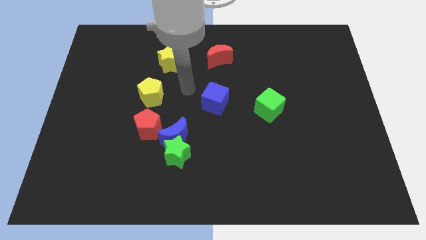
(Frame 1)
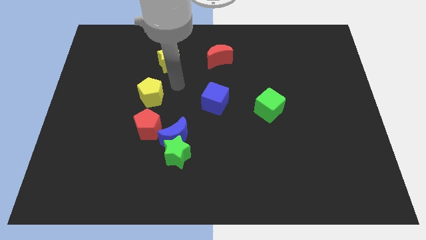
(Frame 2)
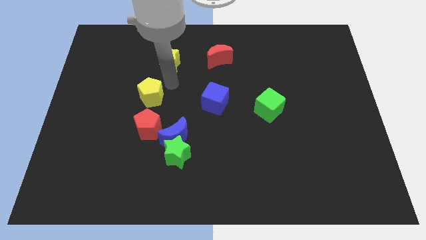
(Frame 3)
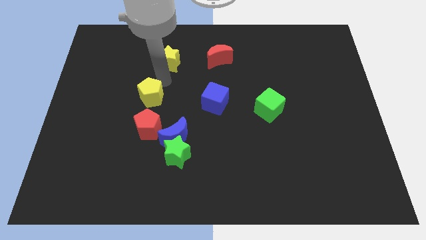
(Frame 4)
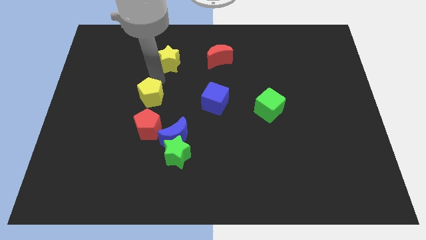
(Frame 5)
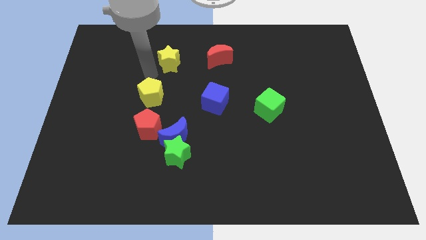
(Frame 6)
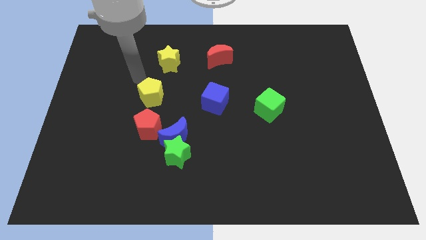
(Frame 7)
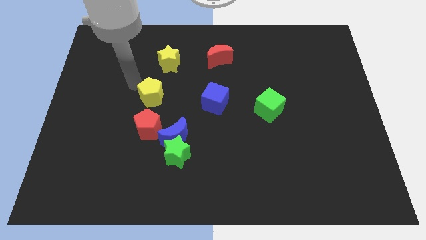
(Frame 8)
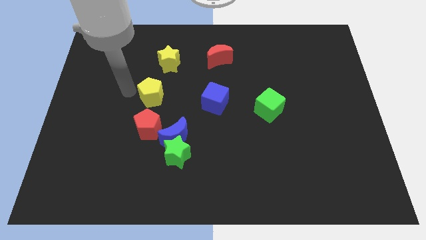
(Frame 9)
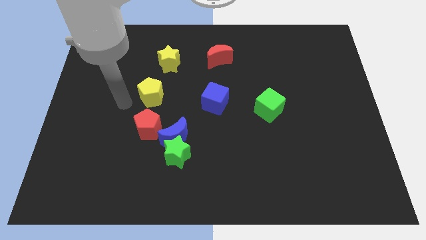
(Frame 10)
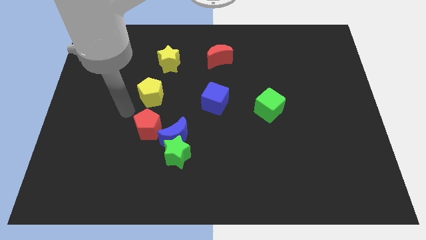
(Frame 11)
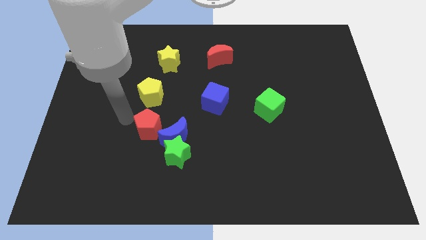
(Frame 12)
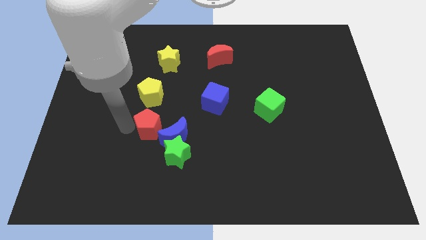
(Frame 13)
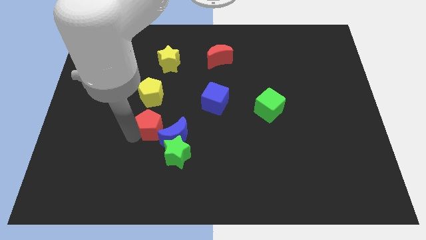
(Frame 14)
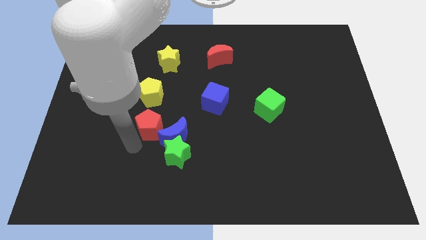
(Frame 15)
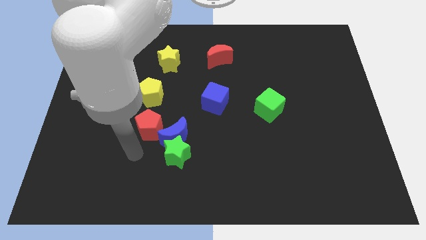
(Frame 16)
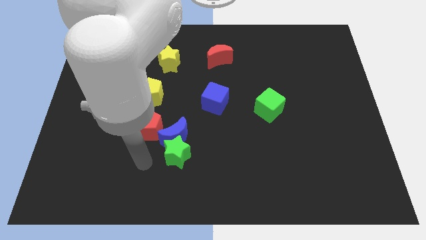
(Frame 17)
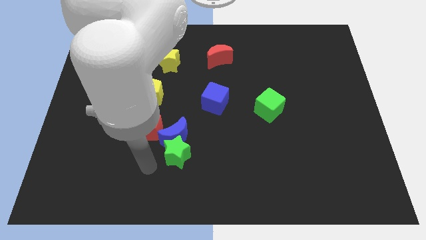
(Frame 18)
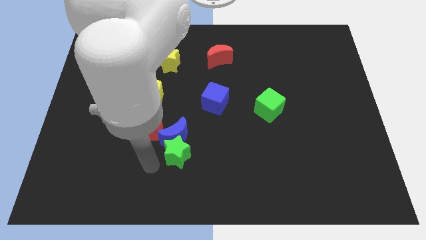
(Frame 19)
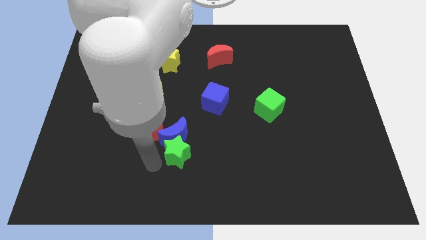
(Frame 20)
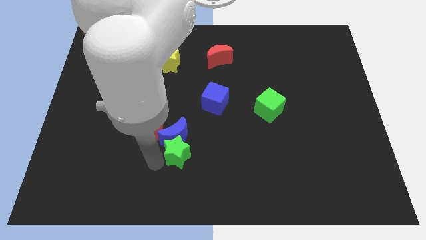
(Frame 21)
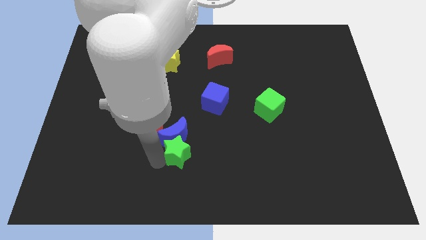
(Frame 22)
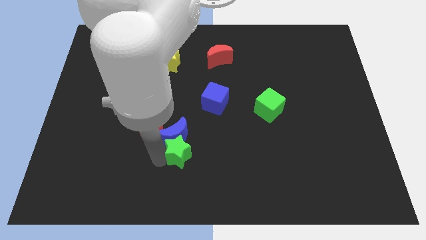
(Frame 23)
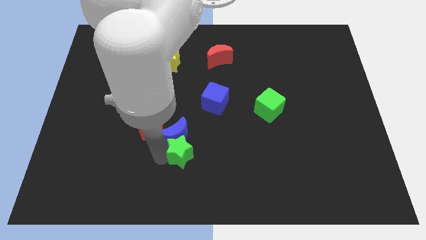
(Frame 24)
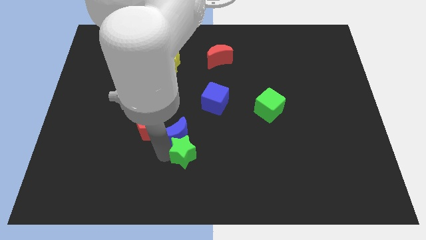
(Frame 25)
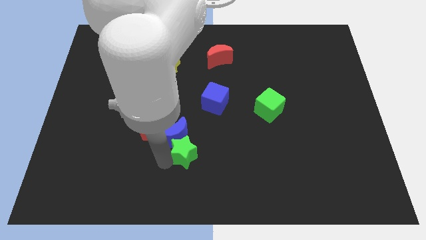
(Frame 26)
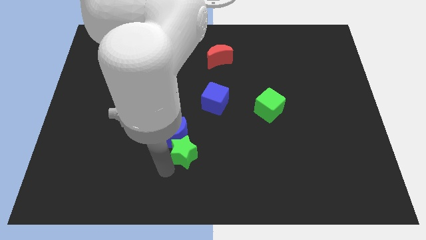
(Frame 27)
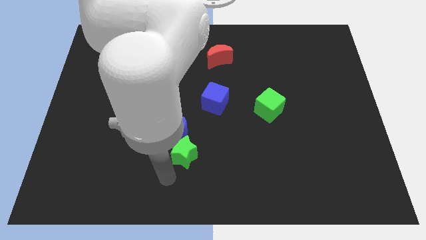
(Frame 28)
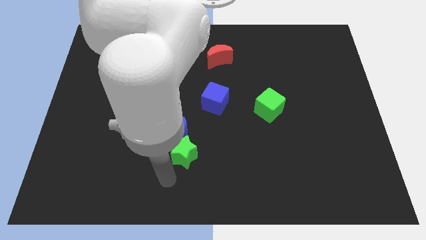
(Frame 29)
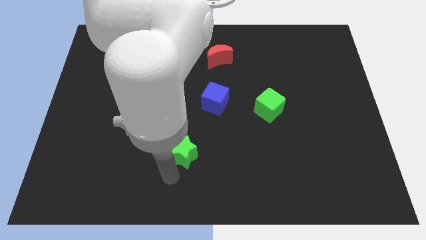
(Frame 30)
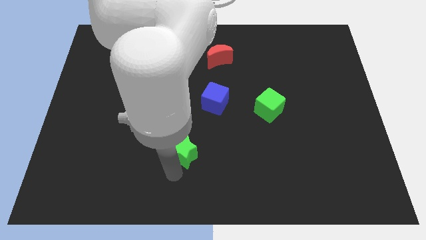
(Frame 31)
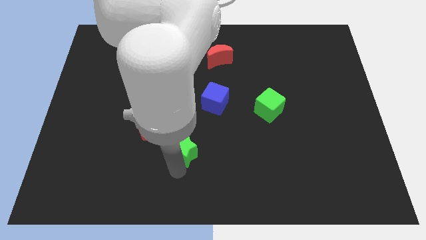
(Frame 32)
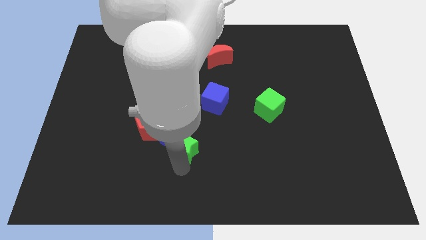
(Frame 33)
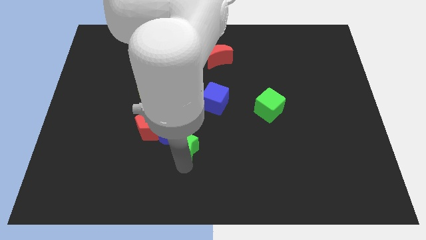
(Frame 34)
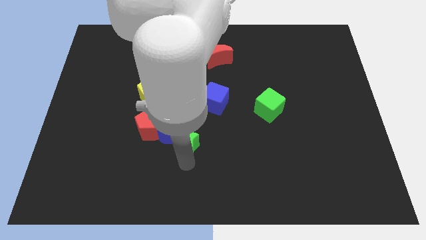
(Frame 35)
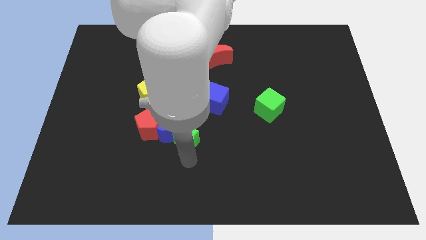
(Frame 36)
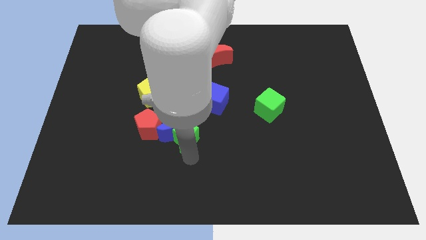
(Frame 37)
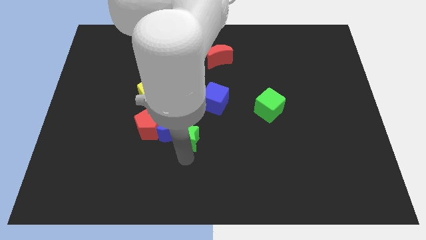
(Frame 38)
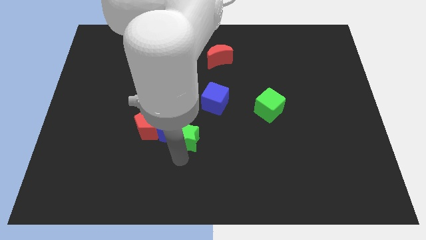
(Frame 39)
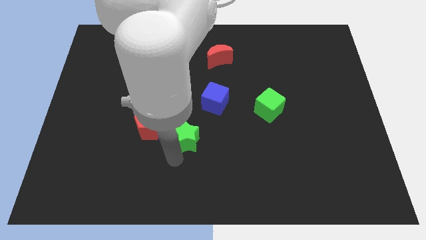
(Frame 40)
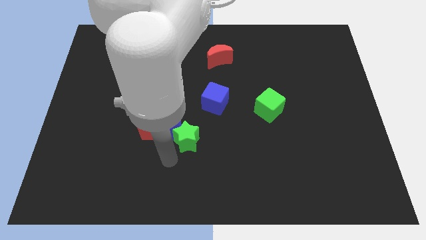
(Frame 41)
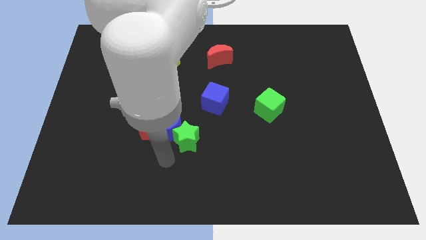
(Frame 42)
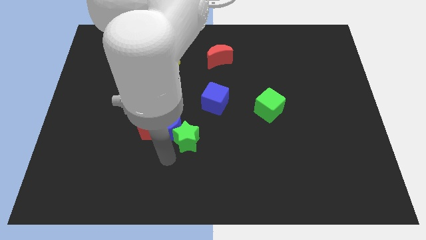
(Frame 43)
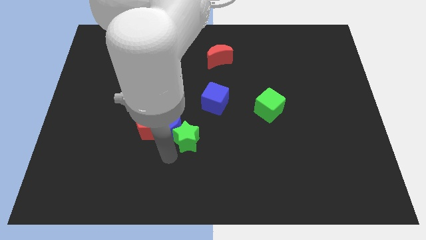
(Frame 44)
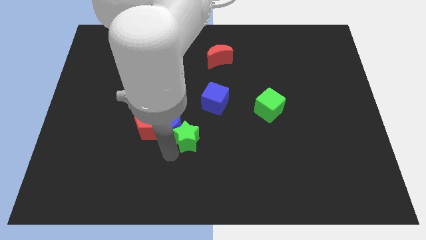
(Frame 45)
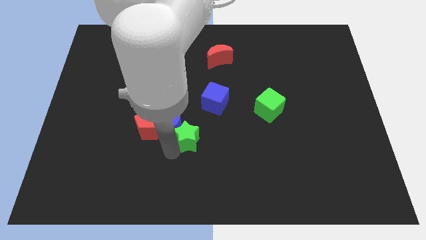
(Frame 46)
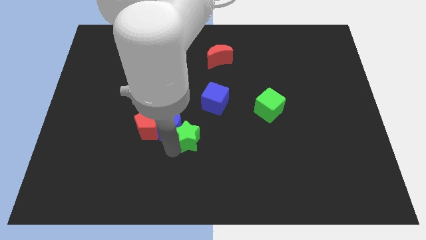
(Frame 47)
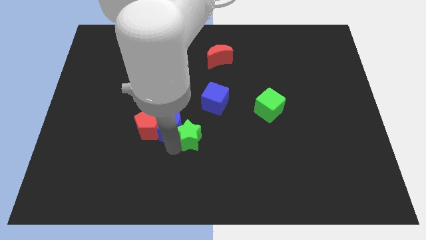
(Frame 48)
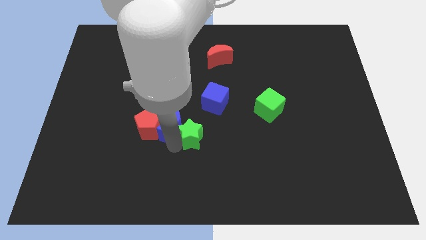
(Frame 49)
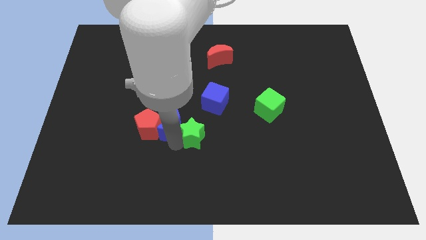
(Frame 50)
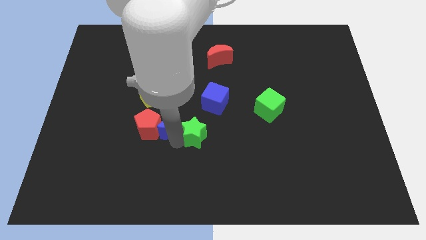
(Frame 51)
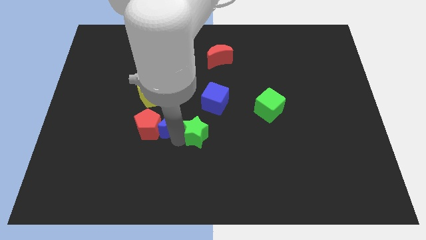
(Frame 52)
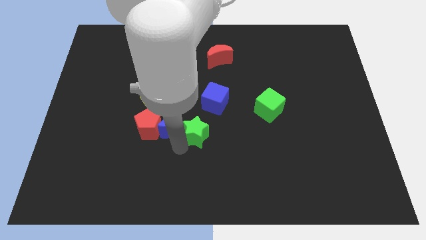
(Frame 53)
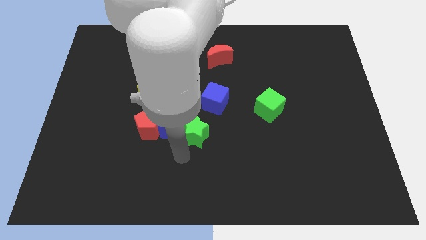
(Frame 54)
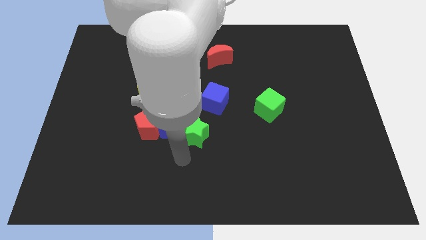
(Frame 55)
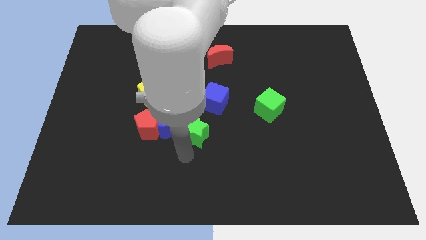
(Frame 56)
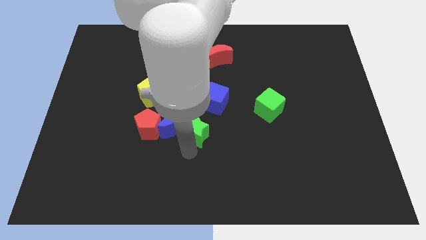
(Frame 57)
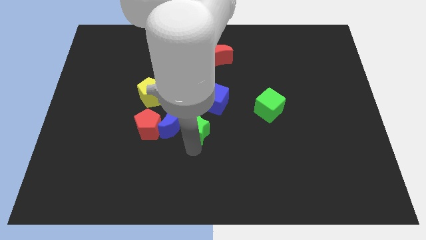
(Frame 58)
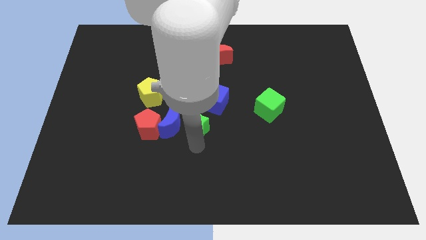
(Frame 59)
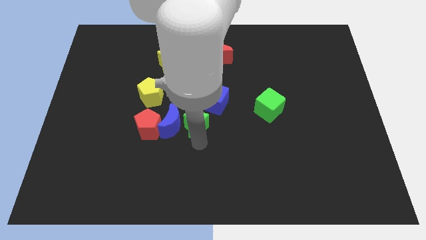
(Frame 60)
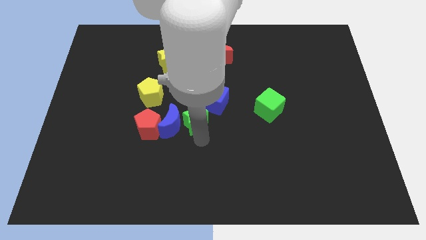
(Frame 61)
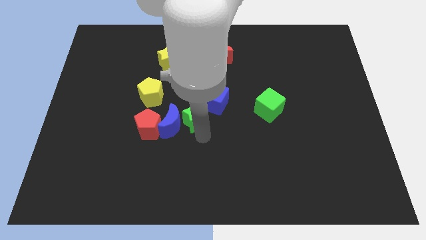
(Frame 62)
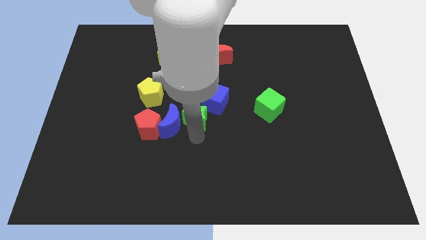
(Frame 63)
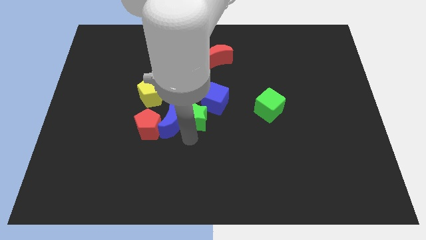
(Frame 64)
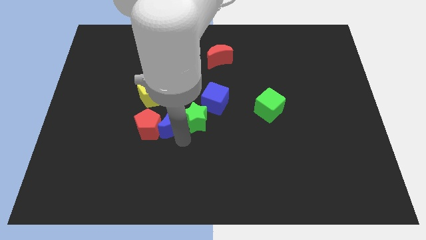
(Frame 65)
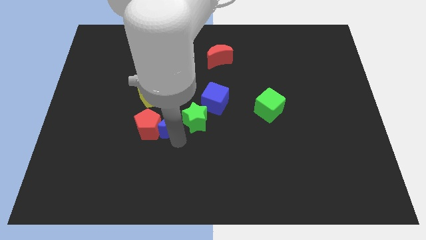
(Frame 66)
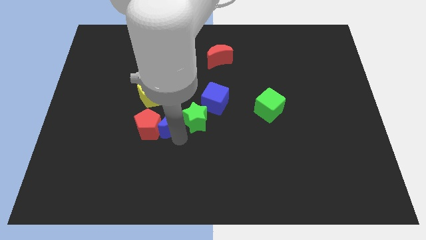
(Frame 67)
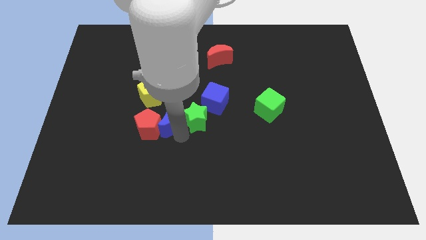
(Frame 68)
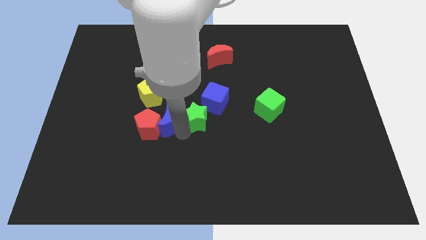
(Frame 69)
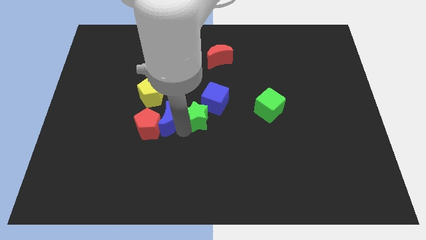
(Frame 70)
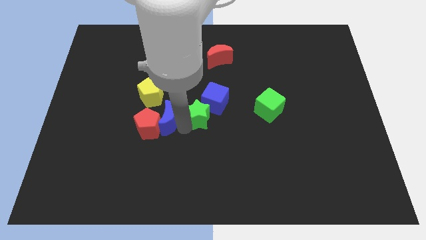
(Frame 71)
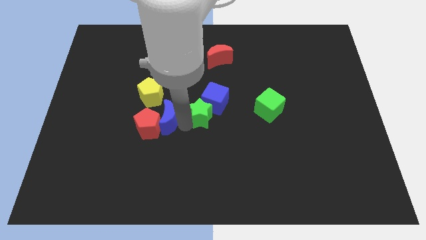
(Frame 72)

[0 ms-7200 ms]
push the green star close to the blue cube

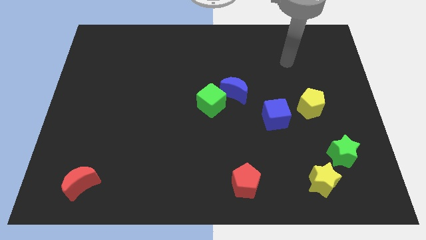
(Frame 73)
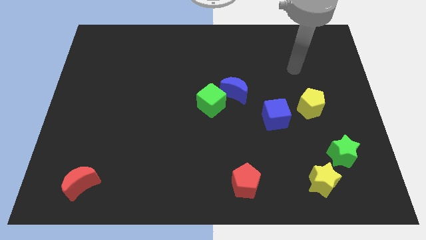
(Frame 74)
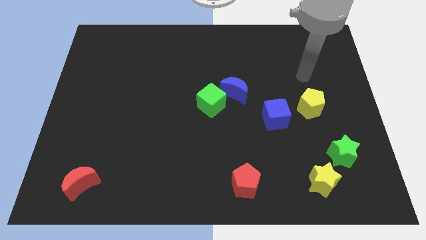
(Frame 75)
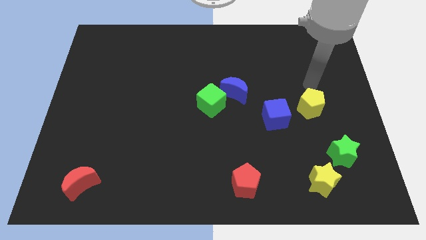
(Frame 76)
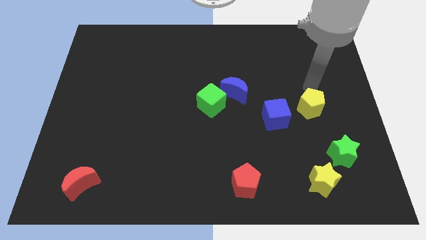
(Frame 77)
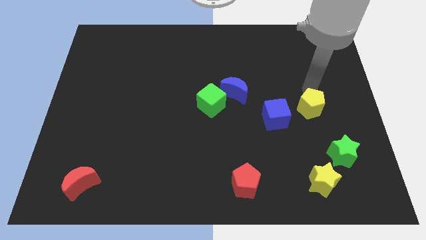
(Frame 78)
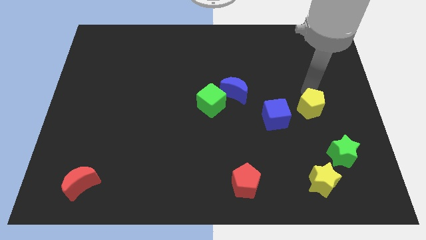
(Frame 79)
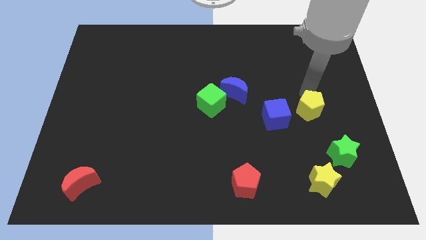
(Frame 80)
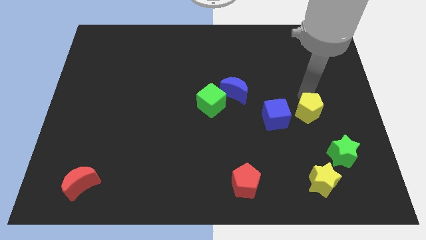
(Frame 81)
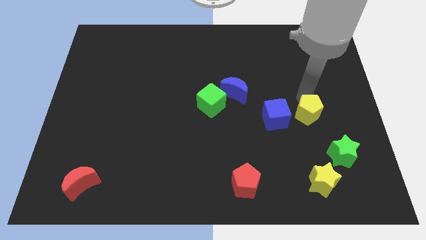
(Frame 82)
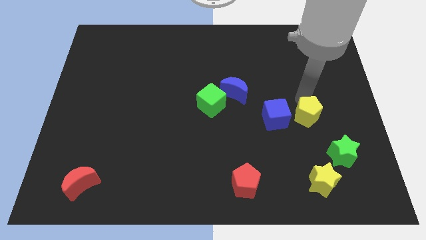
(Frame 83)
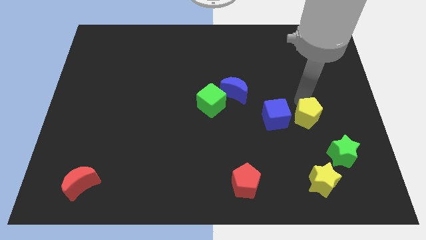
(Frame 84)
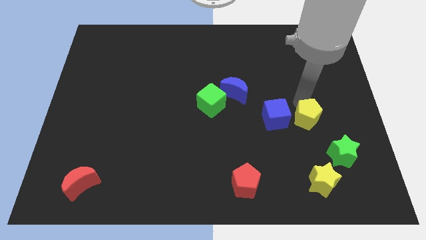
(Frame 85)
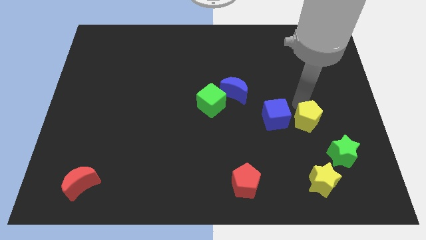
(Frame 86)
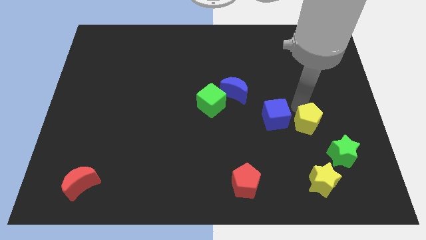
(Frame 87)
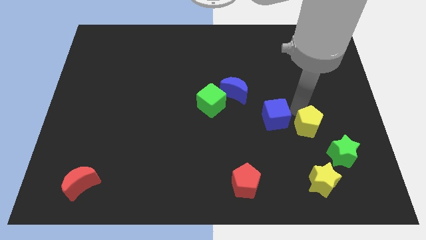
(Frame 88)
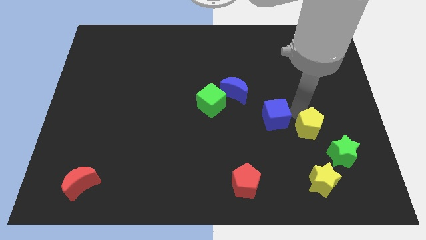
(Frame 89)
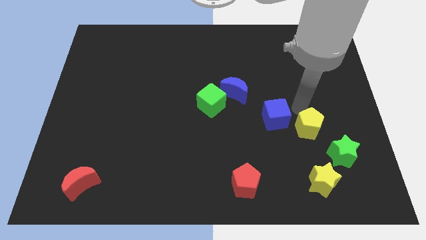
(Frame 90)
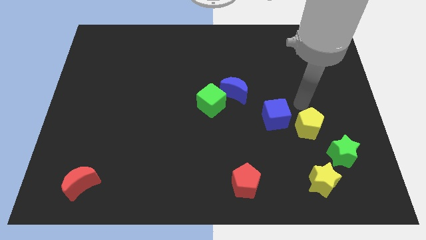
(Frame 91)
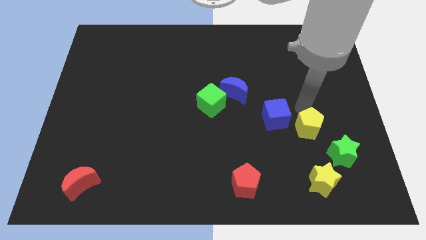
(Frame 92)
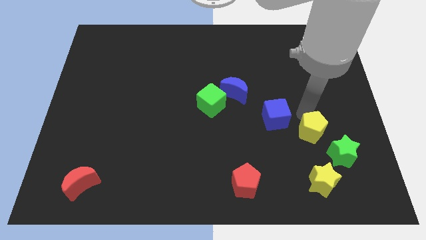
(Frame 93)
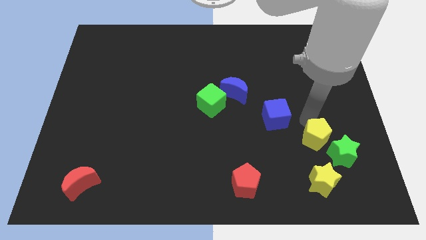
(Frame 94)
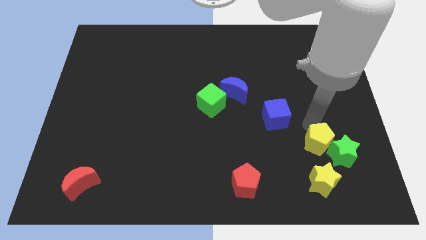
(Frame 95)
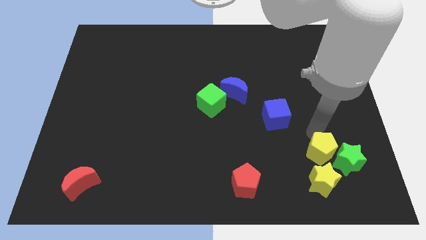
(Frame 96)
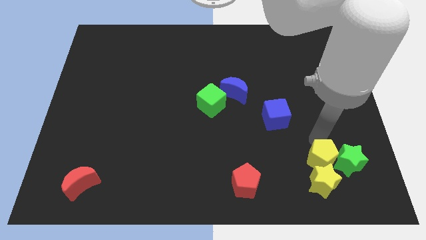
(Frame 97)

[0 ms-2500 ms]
push the yellow pentagon towards the yellow star
